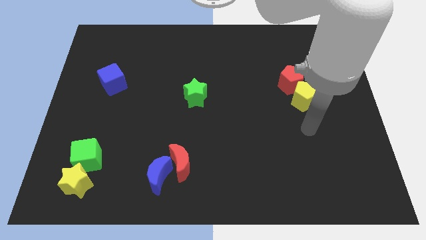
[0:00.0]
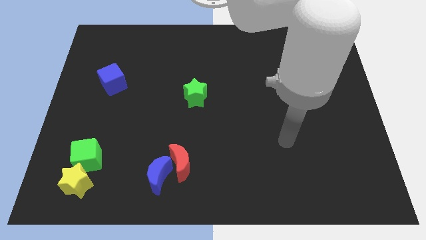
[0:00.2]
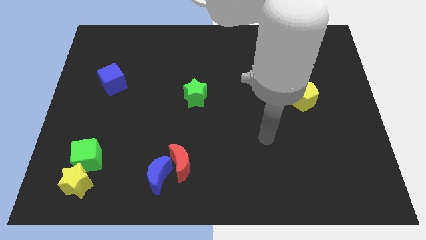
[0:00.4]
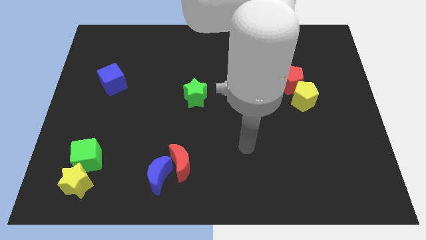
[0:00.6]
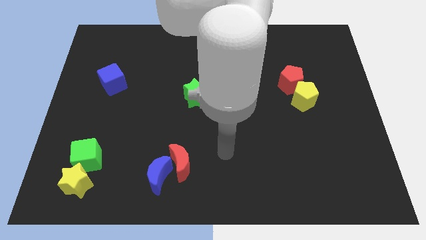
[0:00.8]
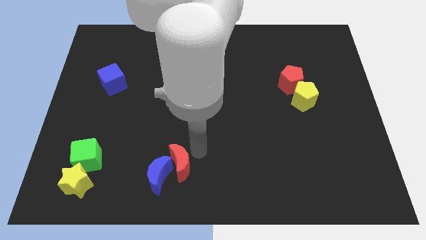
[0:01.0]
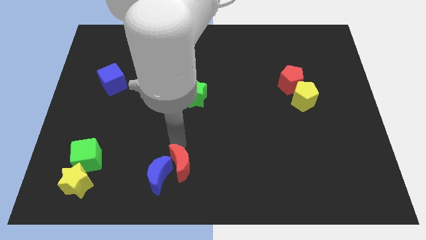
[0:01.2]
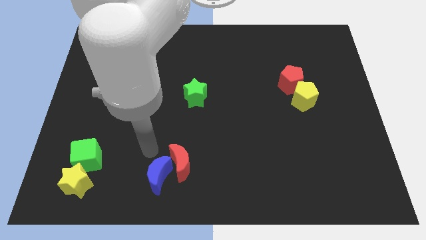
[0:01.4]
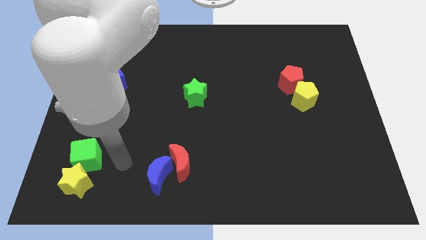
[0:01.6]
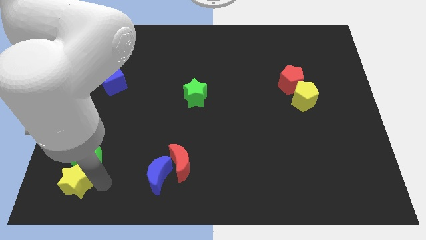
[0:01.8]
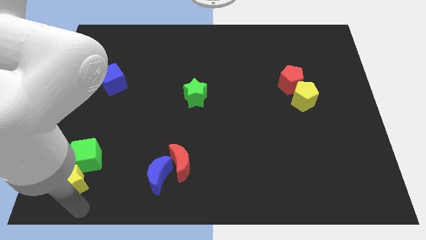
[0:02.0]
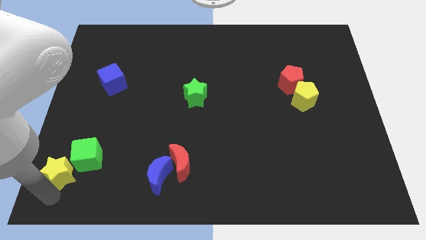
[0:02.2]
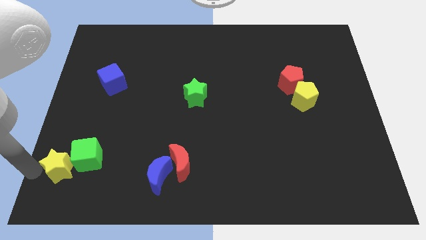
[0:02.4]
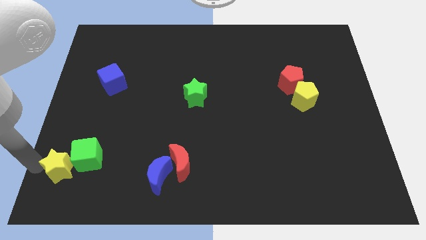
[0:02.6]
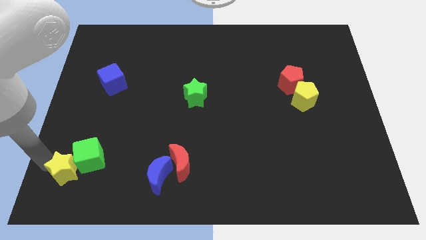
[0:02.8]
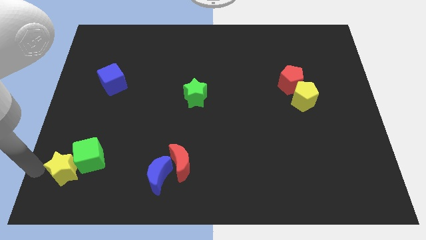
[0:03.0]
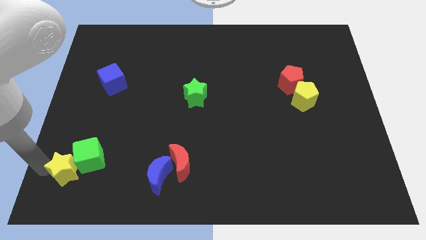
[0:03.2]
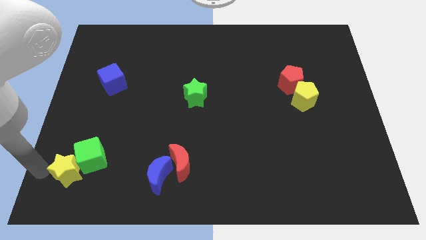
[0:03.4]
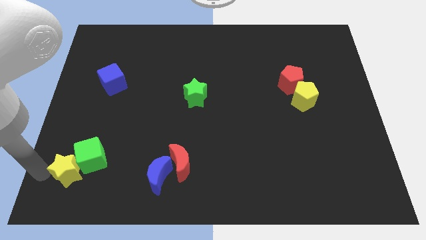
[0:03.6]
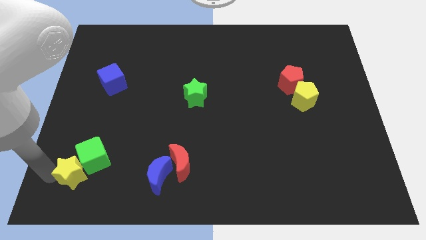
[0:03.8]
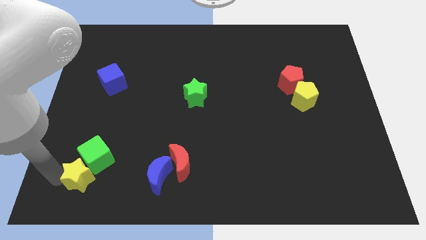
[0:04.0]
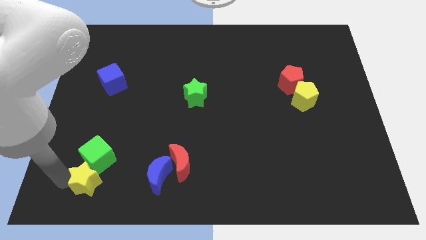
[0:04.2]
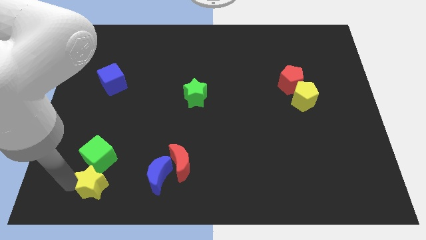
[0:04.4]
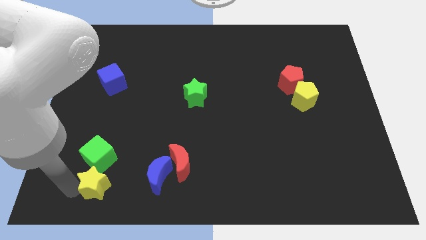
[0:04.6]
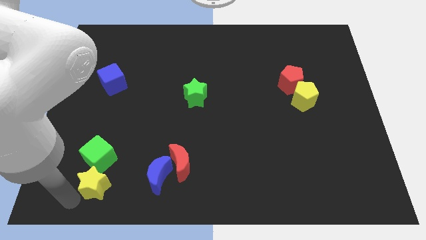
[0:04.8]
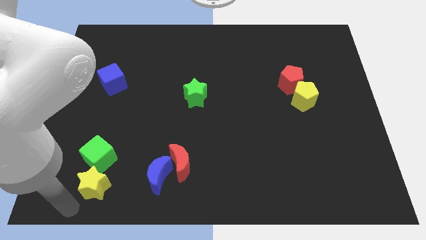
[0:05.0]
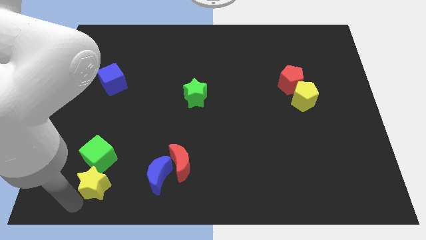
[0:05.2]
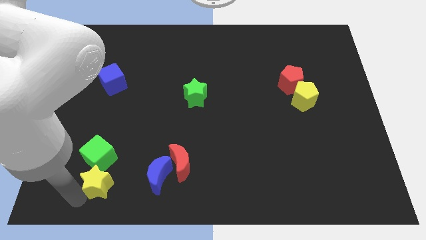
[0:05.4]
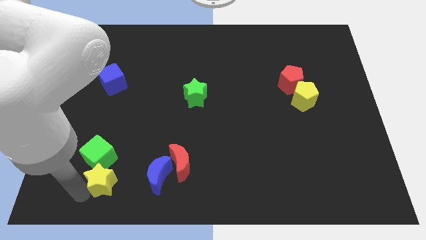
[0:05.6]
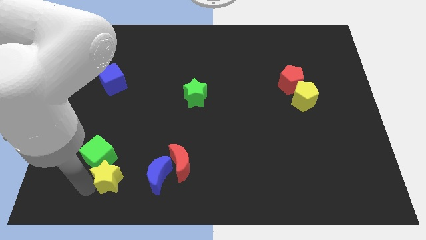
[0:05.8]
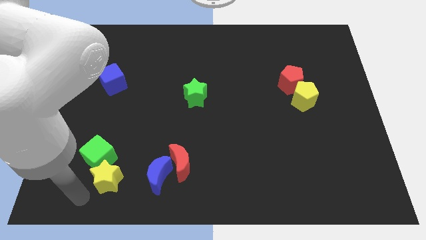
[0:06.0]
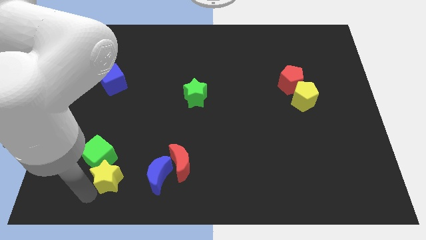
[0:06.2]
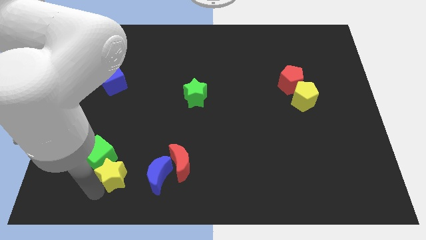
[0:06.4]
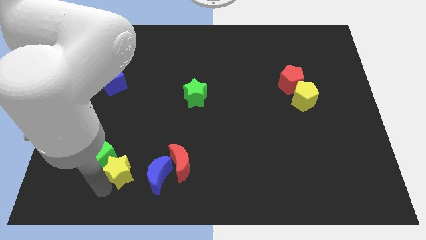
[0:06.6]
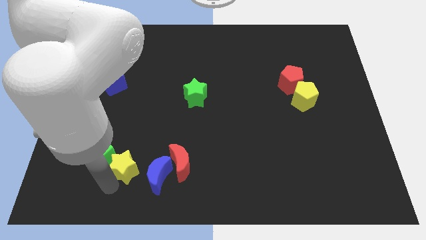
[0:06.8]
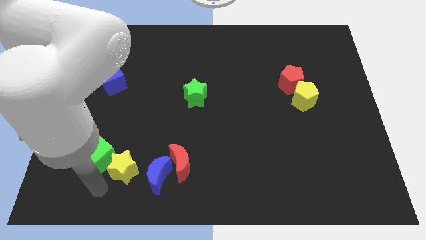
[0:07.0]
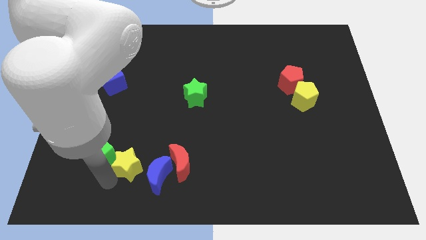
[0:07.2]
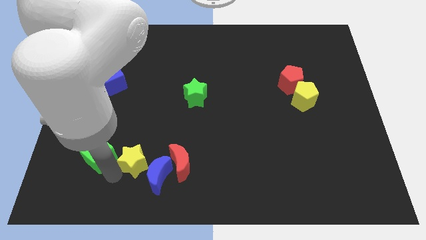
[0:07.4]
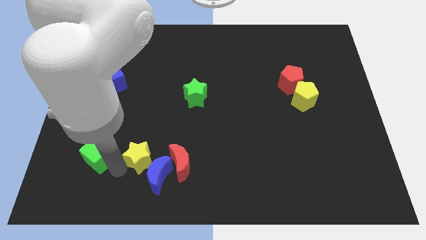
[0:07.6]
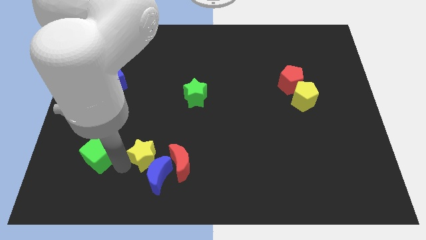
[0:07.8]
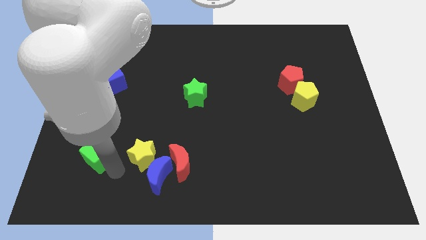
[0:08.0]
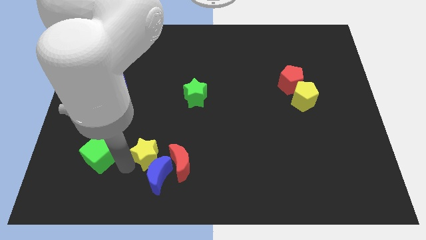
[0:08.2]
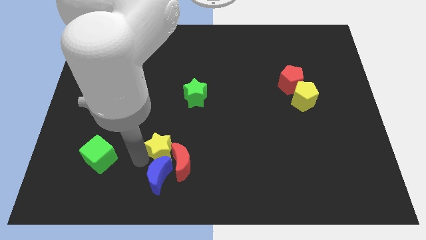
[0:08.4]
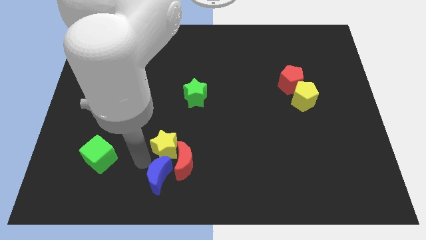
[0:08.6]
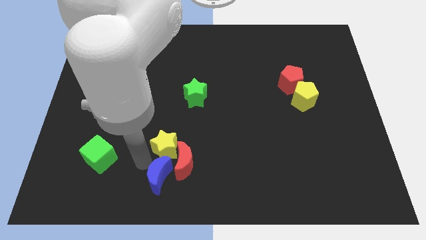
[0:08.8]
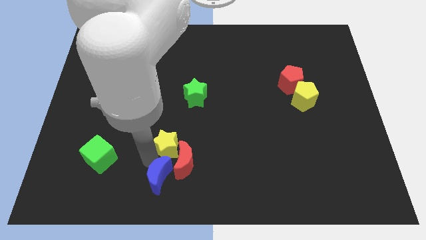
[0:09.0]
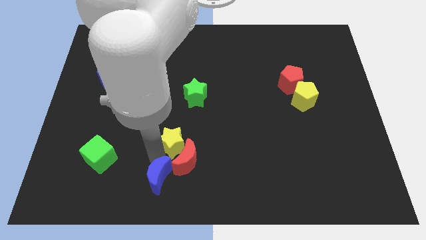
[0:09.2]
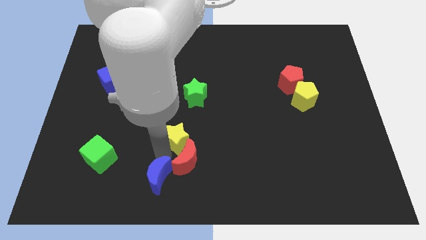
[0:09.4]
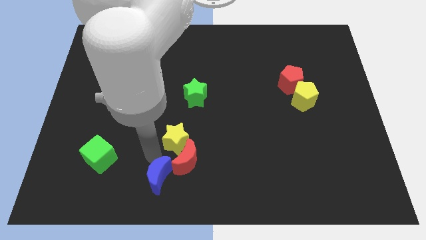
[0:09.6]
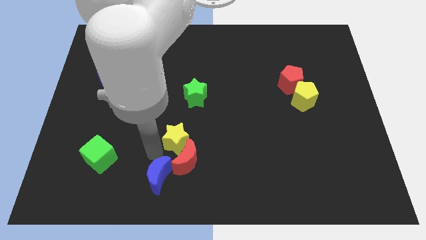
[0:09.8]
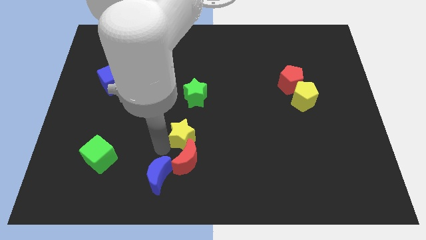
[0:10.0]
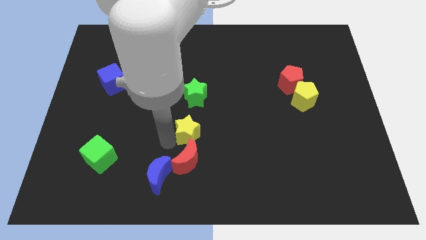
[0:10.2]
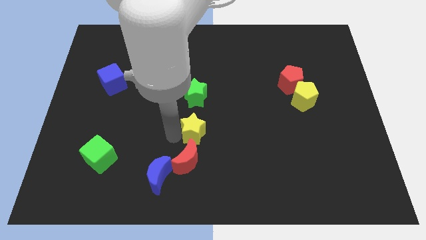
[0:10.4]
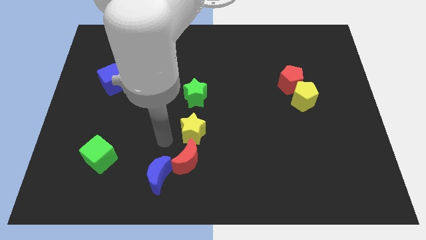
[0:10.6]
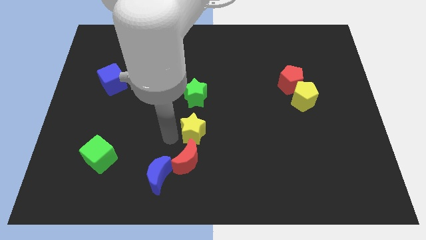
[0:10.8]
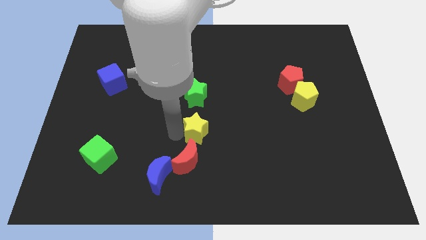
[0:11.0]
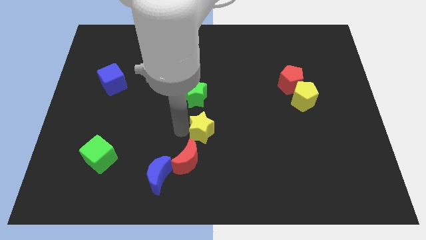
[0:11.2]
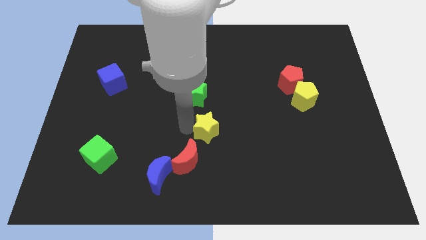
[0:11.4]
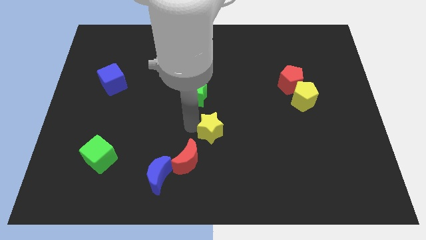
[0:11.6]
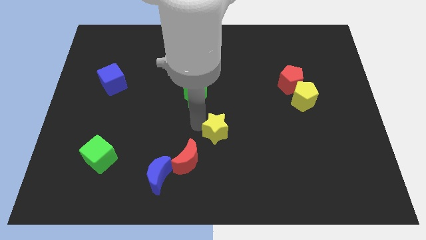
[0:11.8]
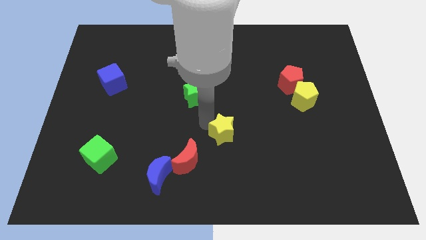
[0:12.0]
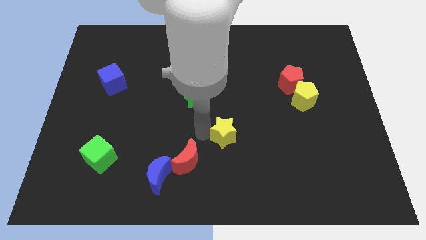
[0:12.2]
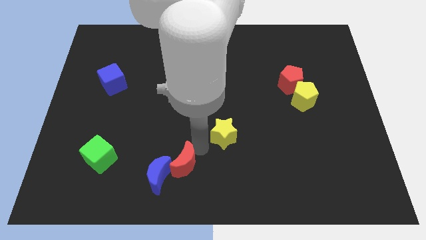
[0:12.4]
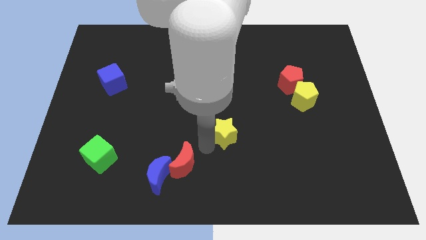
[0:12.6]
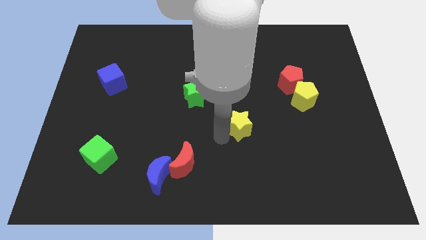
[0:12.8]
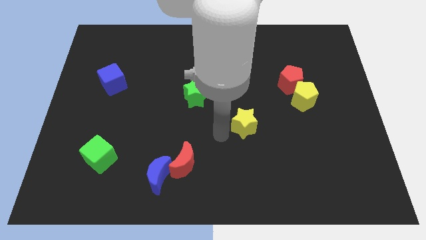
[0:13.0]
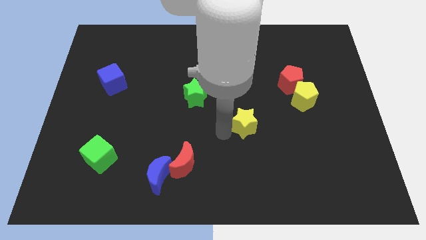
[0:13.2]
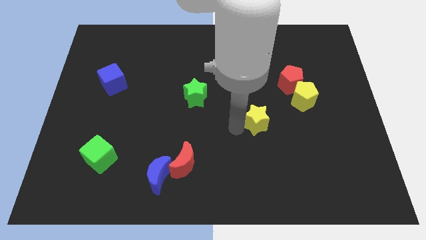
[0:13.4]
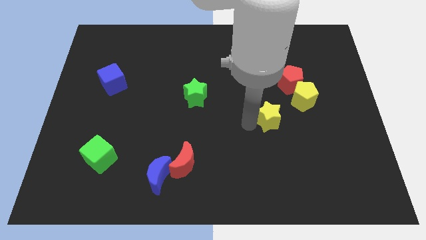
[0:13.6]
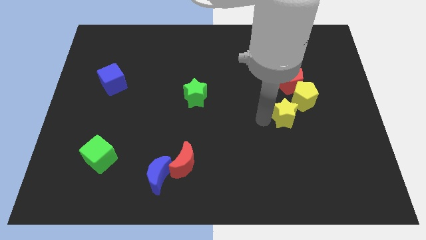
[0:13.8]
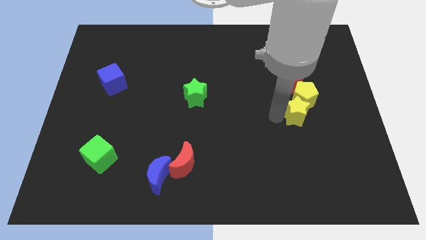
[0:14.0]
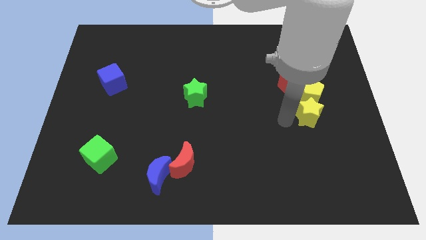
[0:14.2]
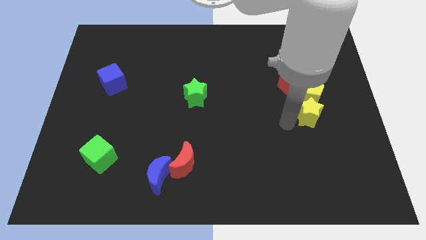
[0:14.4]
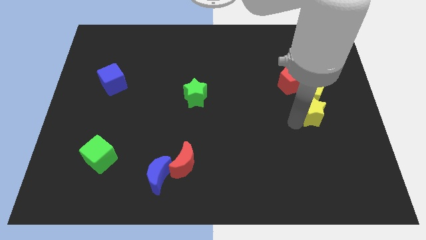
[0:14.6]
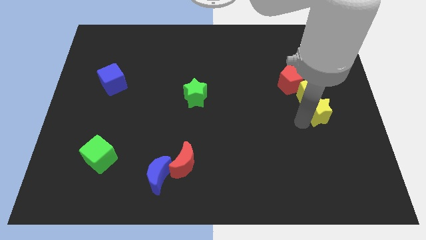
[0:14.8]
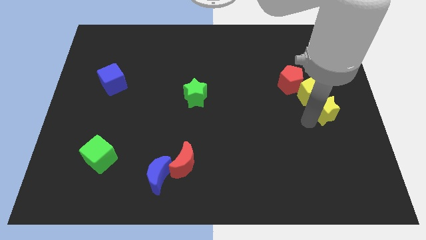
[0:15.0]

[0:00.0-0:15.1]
move the yellow star to the right side of the board
